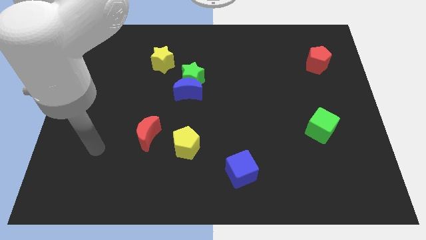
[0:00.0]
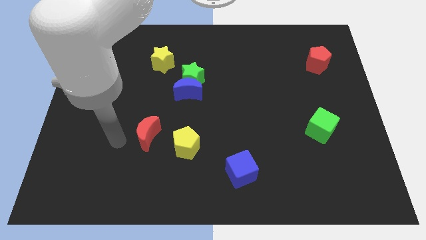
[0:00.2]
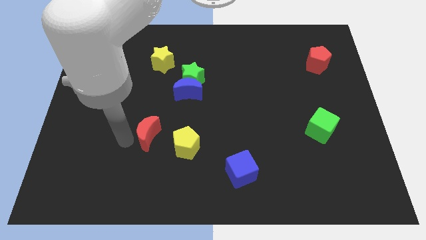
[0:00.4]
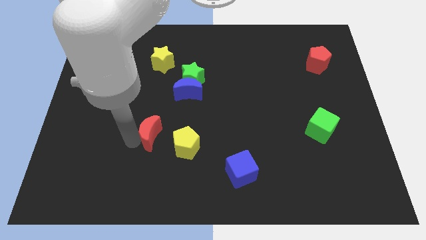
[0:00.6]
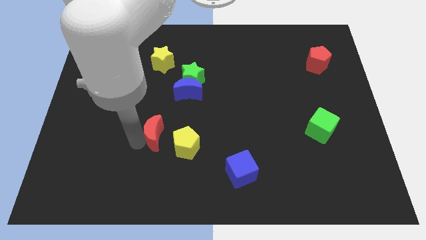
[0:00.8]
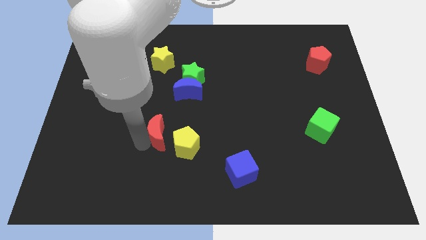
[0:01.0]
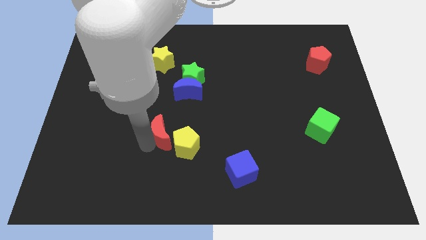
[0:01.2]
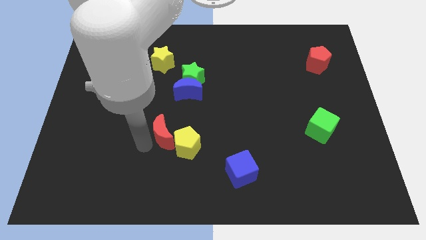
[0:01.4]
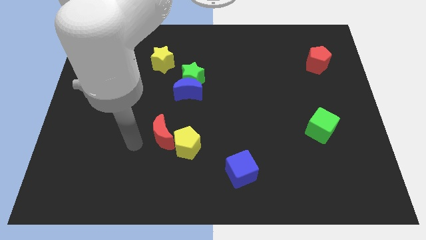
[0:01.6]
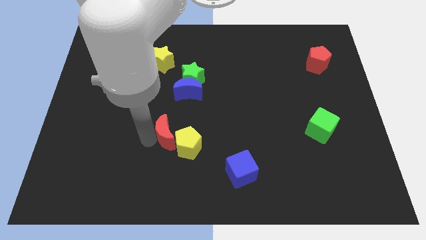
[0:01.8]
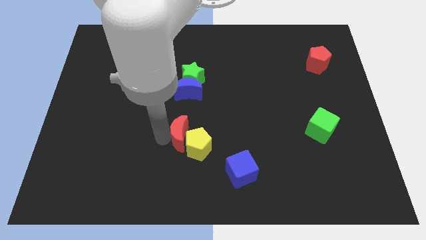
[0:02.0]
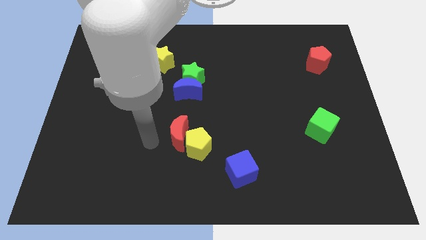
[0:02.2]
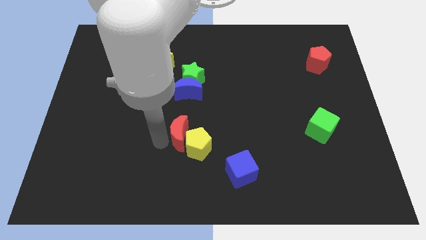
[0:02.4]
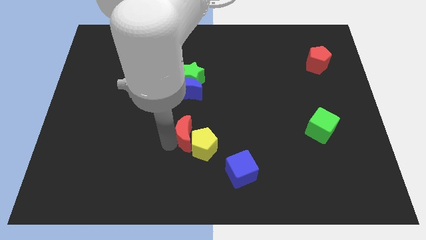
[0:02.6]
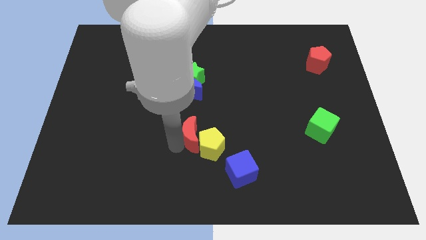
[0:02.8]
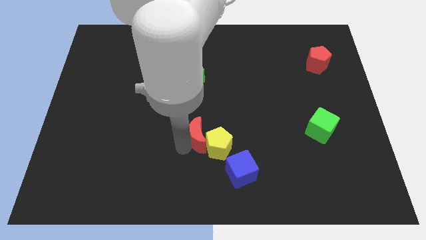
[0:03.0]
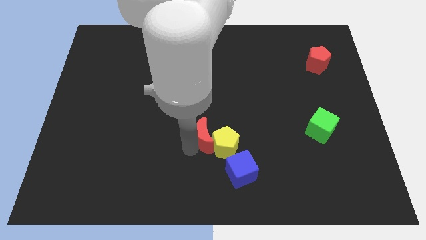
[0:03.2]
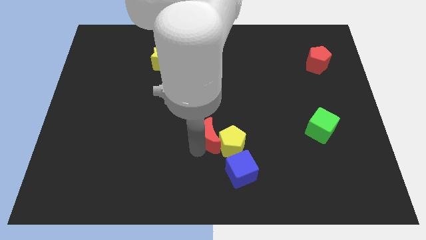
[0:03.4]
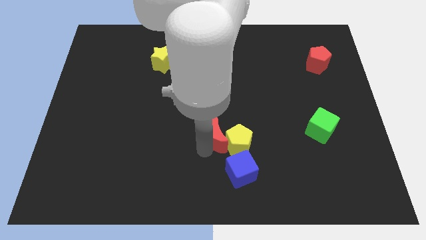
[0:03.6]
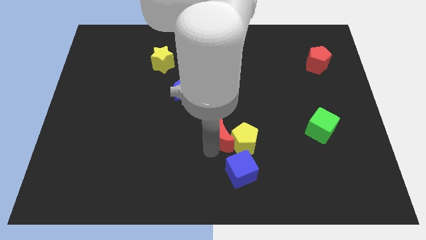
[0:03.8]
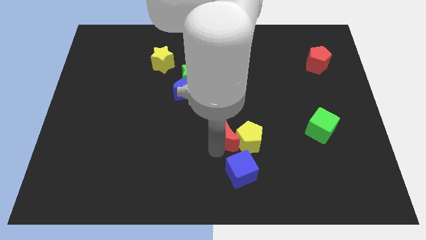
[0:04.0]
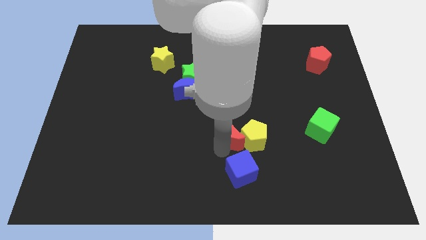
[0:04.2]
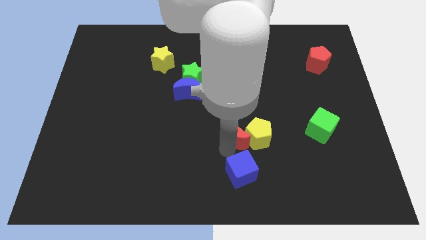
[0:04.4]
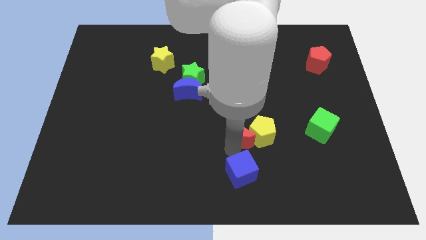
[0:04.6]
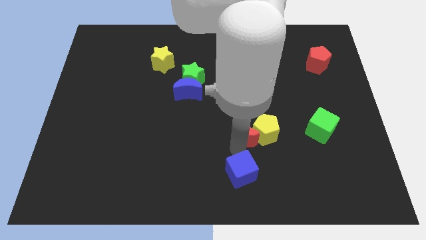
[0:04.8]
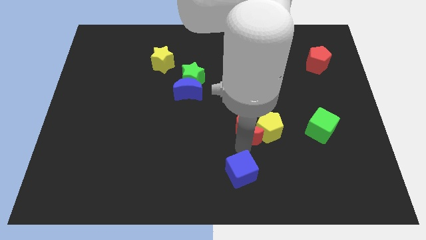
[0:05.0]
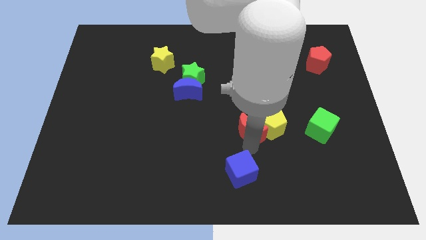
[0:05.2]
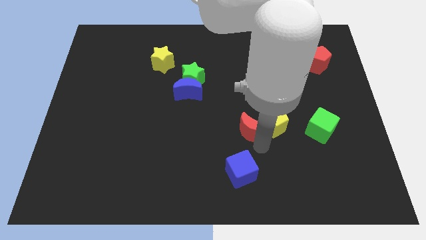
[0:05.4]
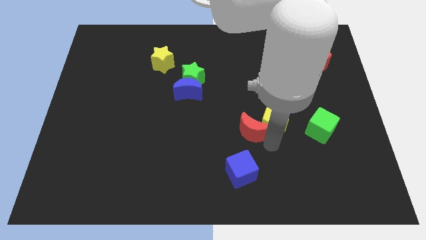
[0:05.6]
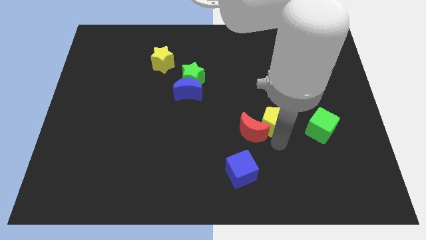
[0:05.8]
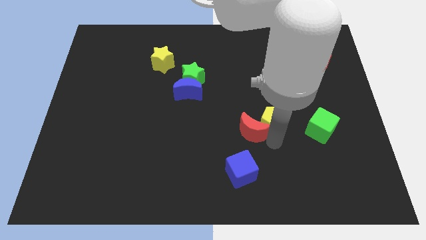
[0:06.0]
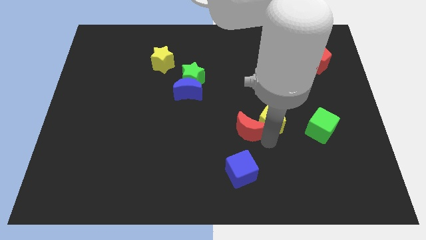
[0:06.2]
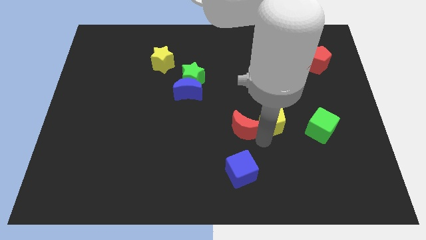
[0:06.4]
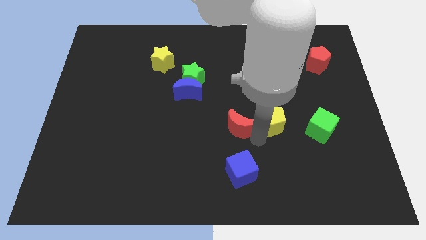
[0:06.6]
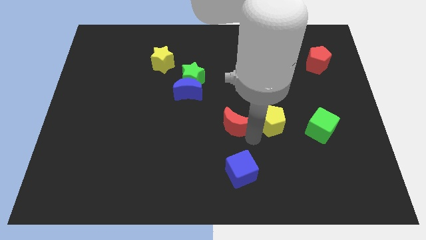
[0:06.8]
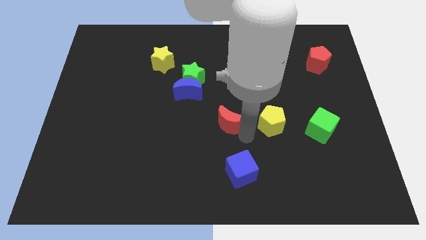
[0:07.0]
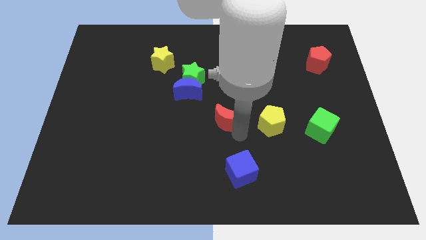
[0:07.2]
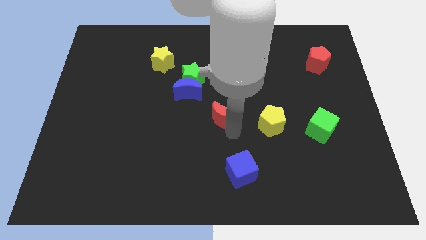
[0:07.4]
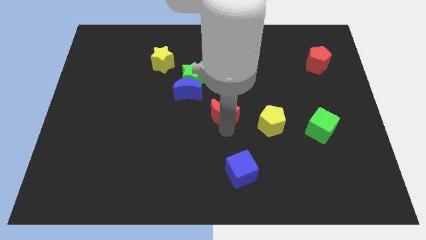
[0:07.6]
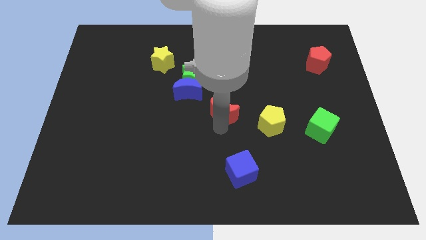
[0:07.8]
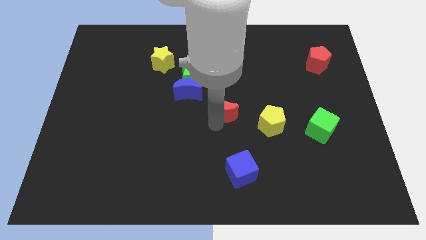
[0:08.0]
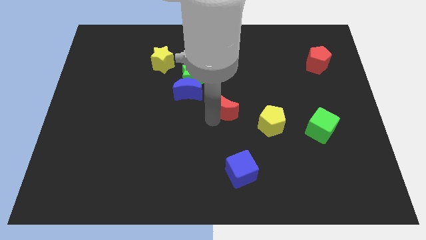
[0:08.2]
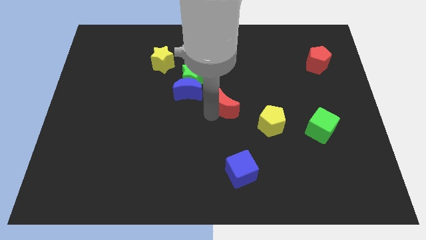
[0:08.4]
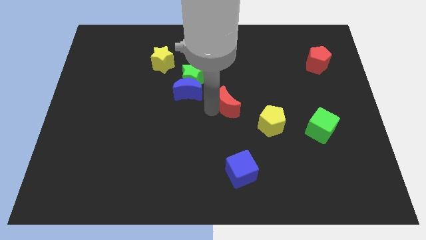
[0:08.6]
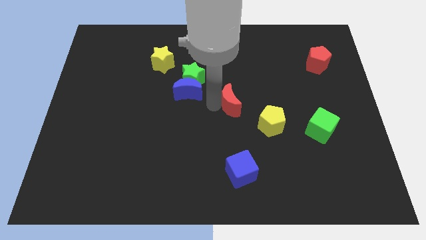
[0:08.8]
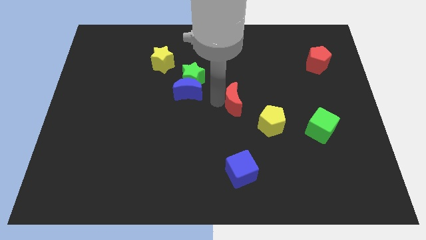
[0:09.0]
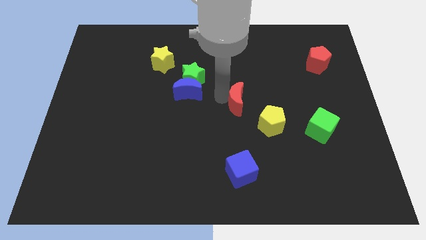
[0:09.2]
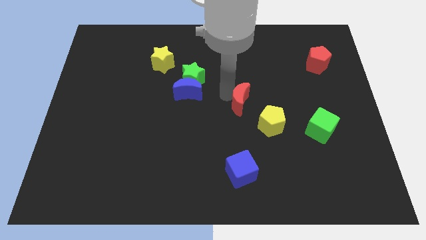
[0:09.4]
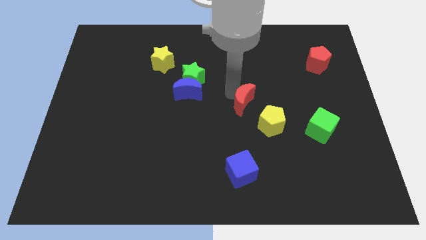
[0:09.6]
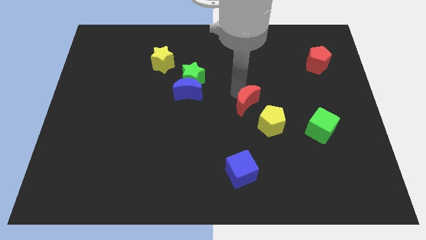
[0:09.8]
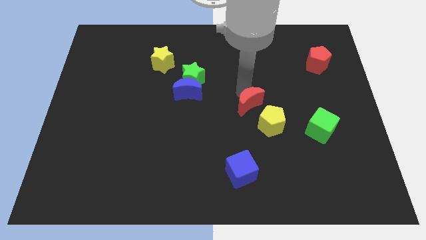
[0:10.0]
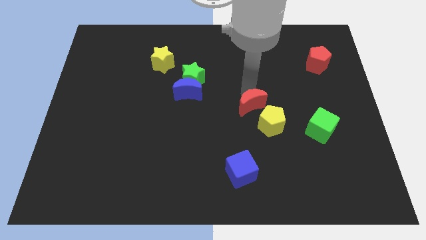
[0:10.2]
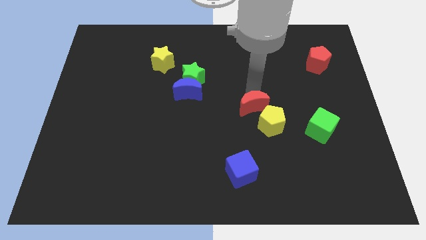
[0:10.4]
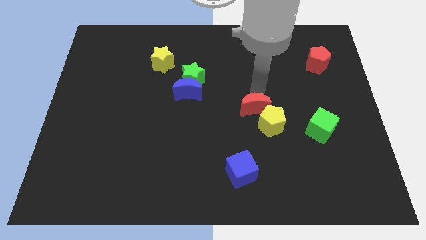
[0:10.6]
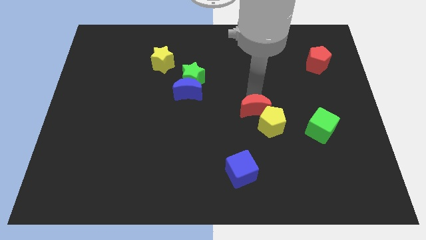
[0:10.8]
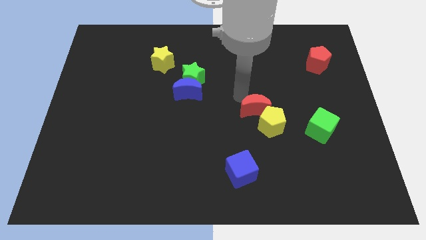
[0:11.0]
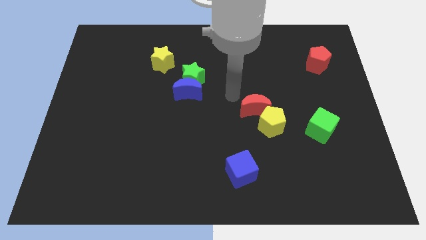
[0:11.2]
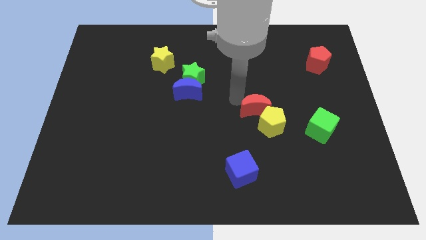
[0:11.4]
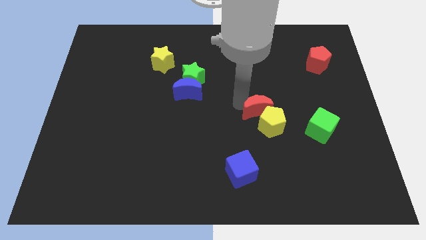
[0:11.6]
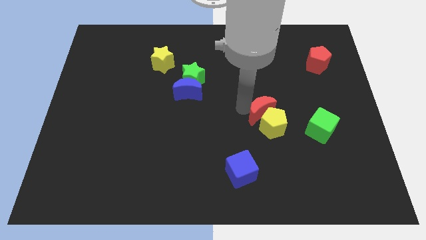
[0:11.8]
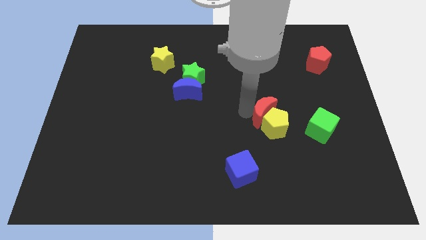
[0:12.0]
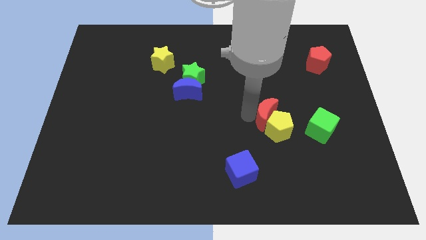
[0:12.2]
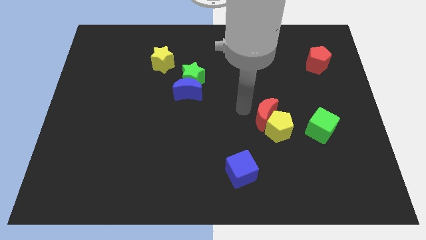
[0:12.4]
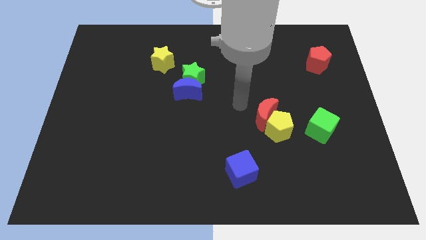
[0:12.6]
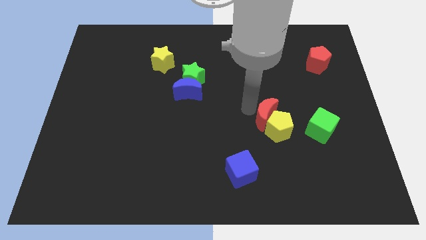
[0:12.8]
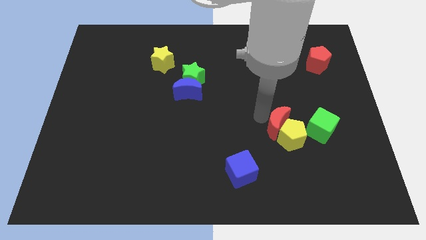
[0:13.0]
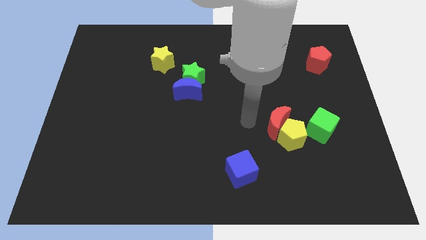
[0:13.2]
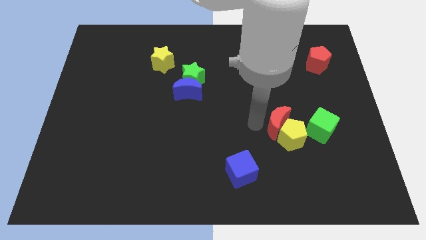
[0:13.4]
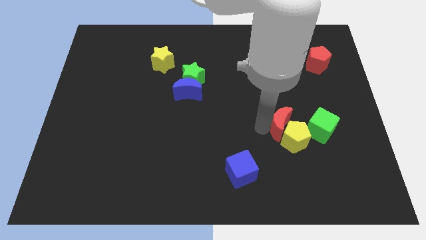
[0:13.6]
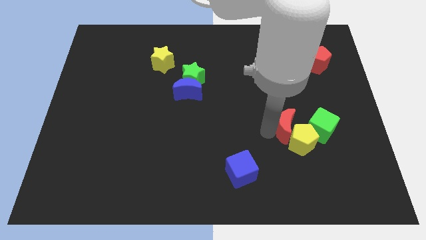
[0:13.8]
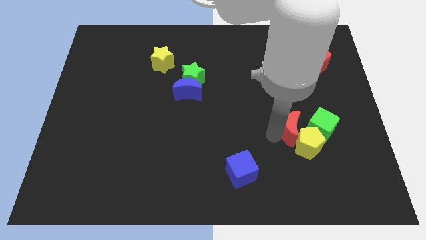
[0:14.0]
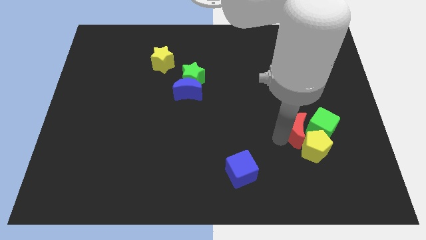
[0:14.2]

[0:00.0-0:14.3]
move the red moon towards the green cube
